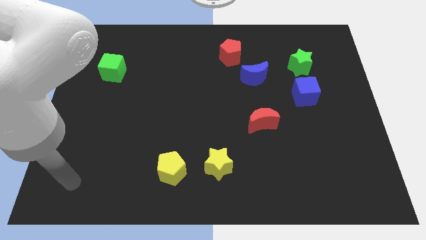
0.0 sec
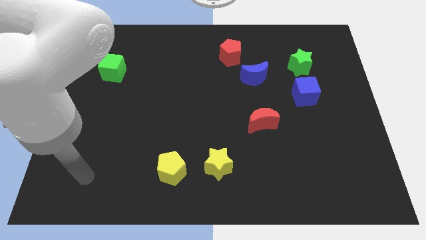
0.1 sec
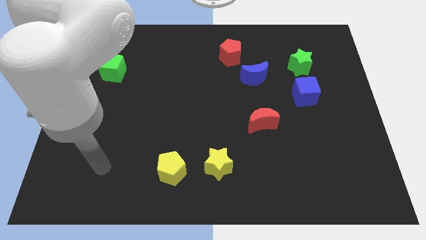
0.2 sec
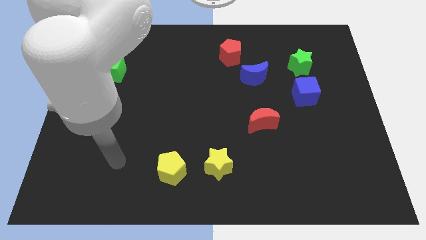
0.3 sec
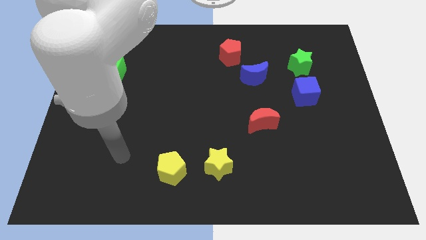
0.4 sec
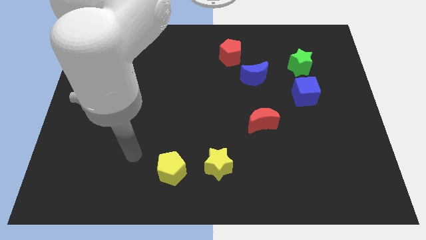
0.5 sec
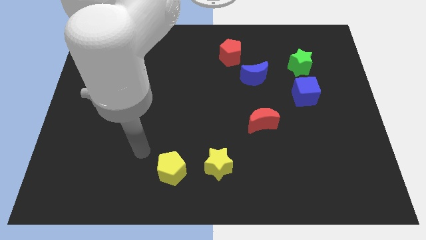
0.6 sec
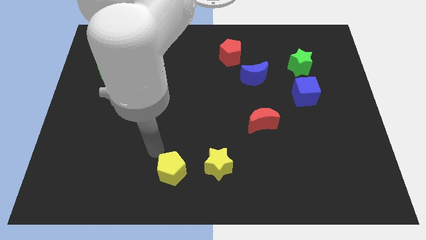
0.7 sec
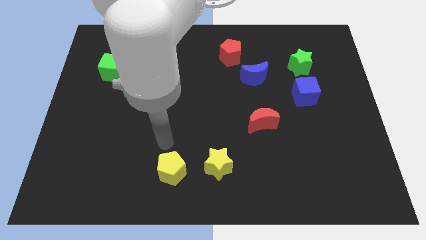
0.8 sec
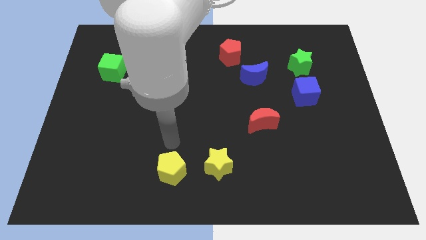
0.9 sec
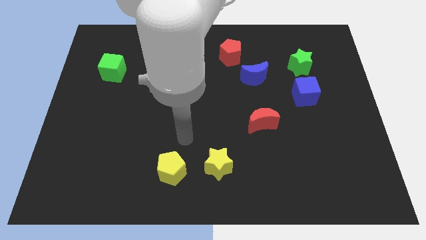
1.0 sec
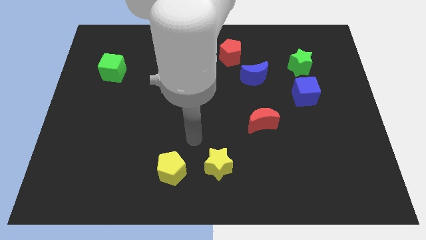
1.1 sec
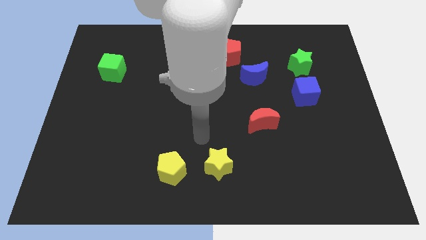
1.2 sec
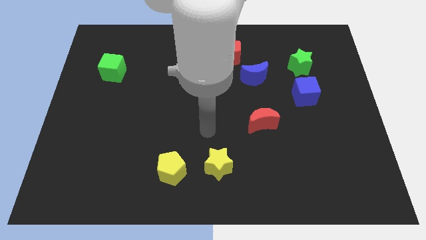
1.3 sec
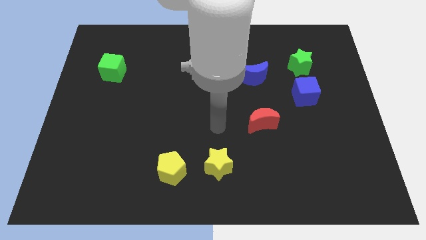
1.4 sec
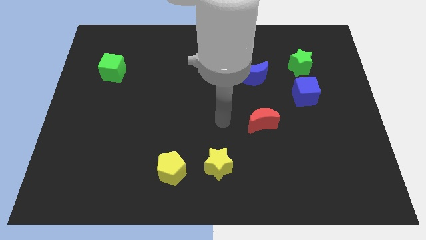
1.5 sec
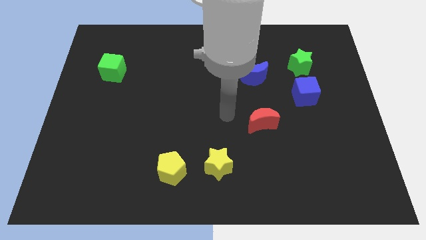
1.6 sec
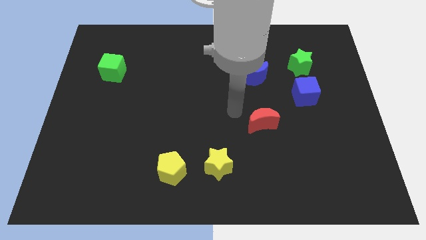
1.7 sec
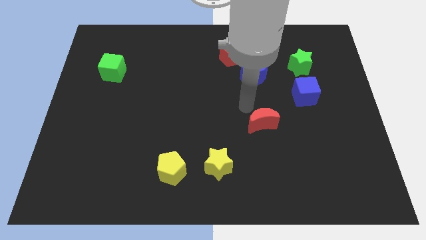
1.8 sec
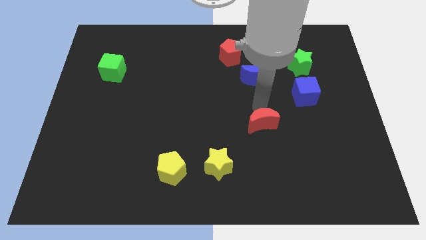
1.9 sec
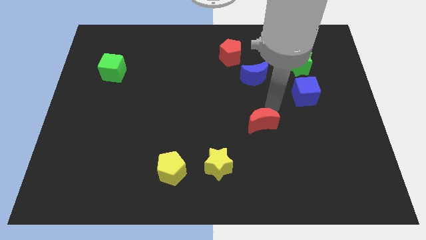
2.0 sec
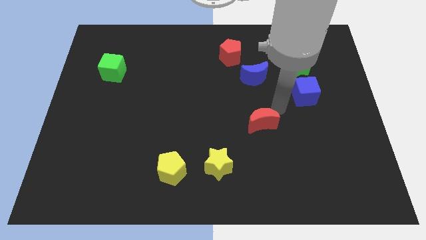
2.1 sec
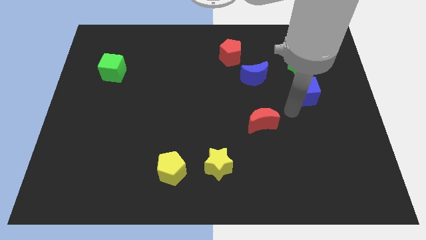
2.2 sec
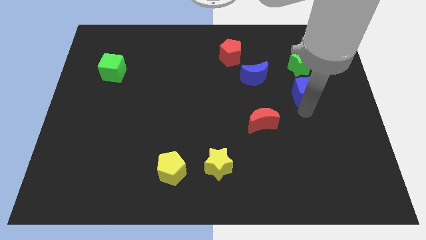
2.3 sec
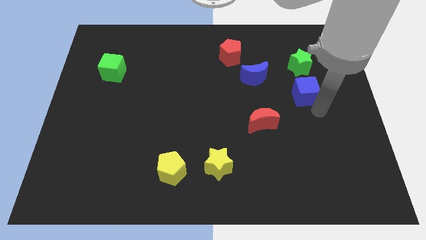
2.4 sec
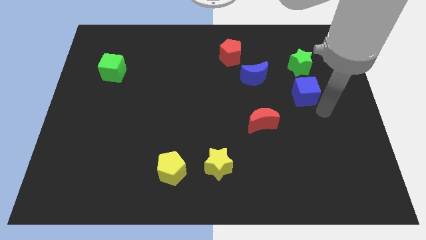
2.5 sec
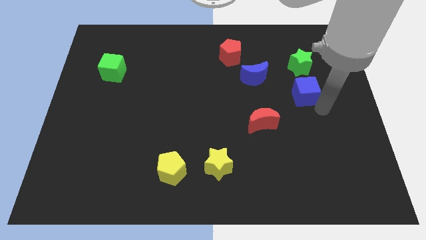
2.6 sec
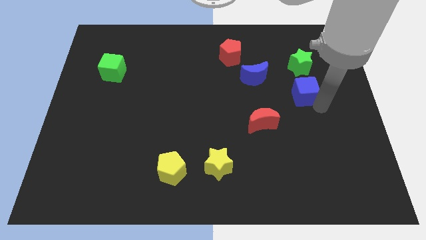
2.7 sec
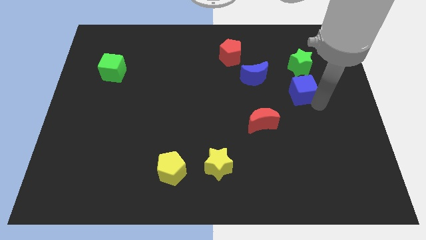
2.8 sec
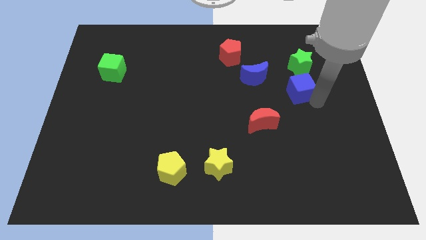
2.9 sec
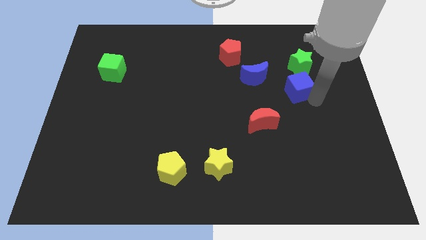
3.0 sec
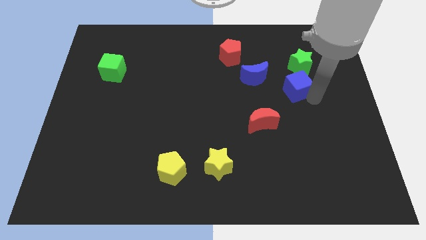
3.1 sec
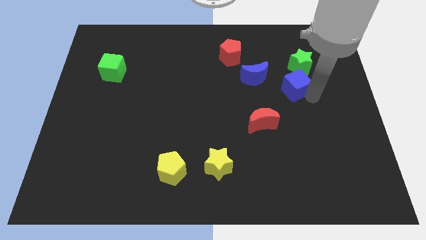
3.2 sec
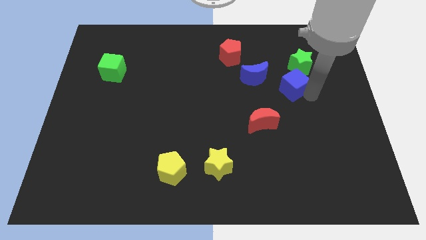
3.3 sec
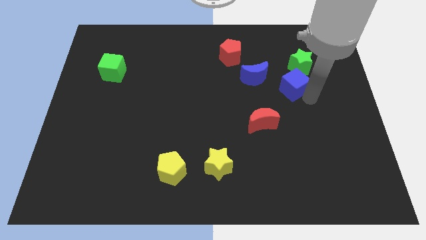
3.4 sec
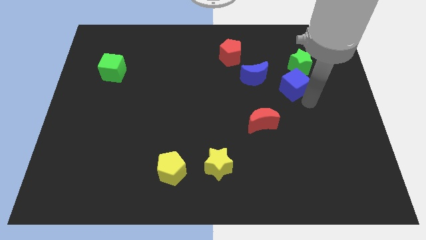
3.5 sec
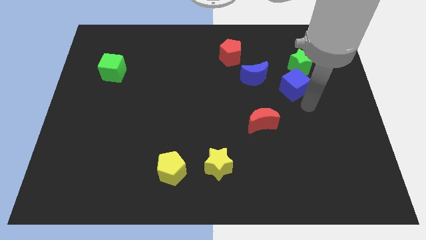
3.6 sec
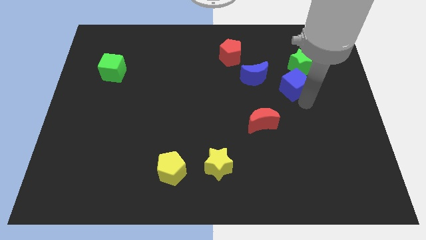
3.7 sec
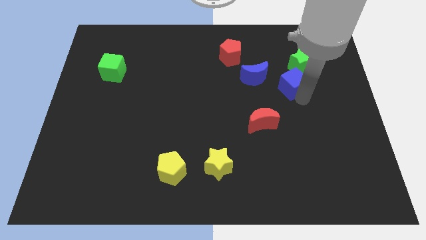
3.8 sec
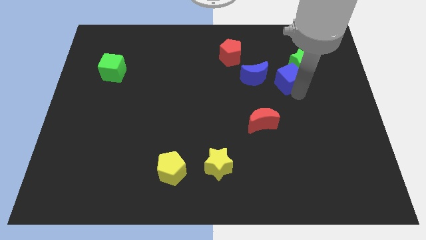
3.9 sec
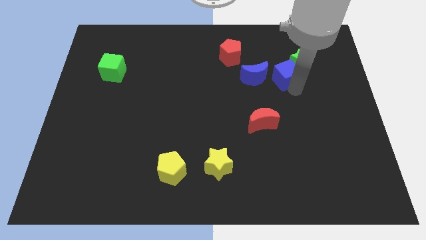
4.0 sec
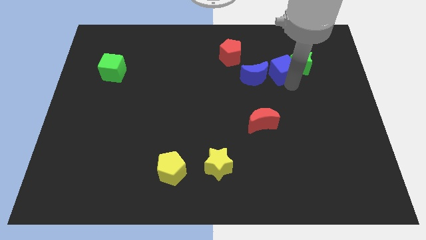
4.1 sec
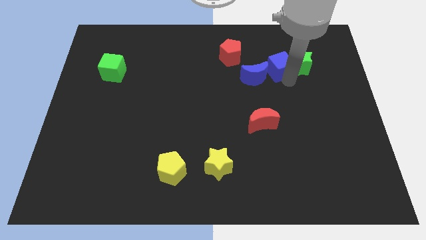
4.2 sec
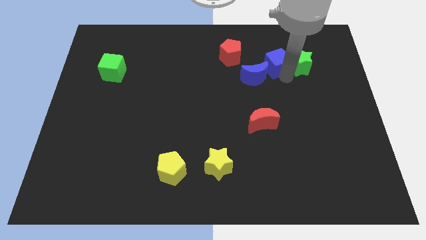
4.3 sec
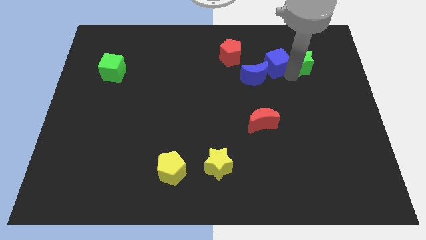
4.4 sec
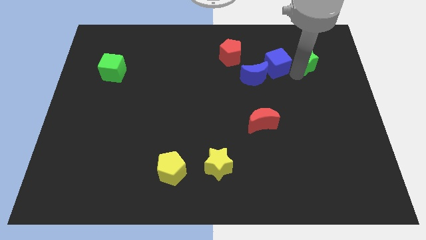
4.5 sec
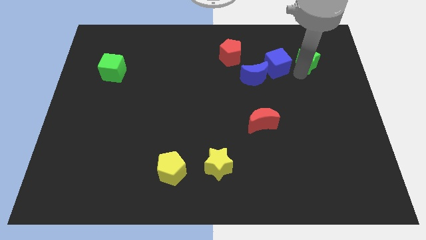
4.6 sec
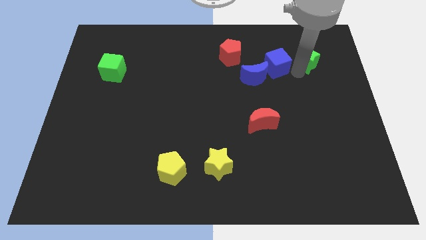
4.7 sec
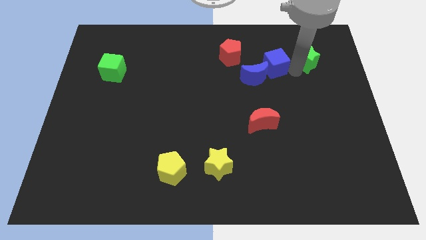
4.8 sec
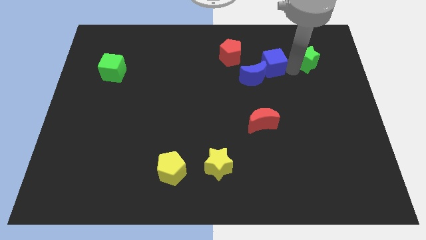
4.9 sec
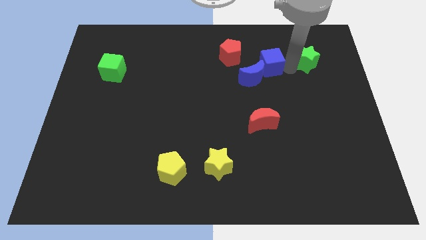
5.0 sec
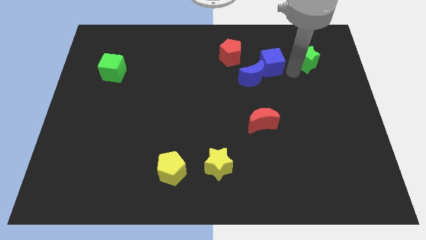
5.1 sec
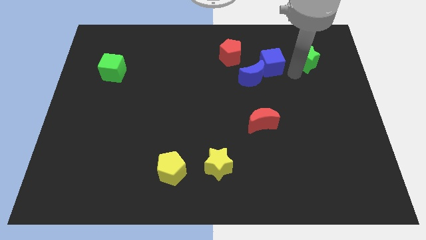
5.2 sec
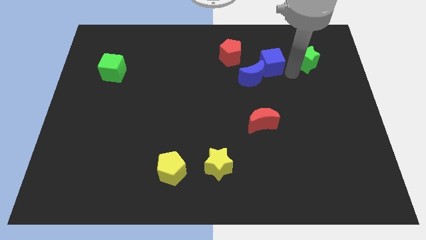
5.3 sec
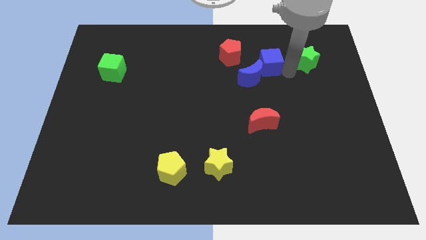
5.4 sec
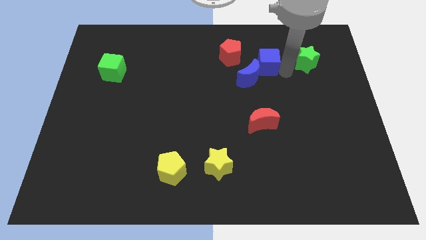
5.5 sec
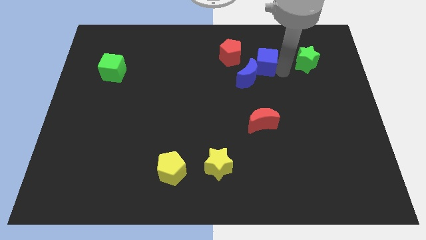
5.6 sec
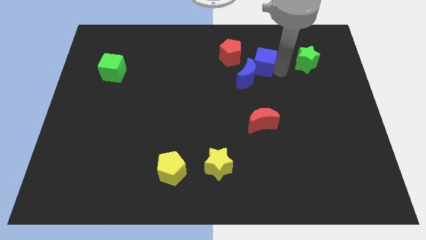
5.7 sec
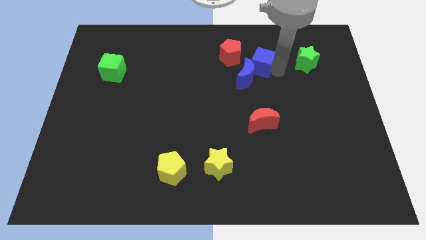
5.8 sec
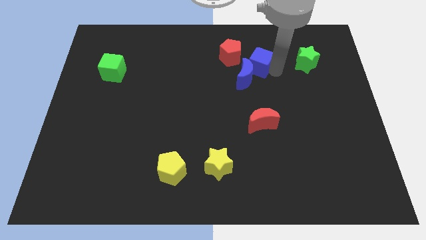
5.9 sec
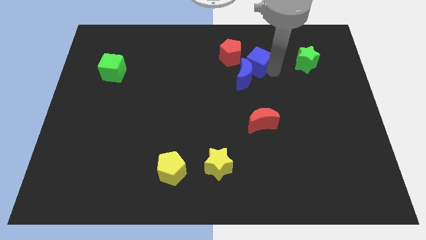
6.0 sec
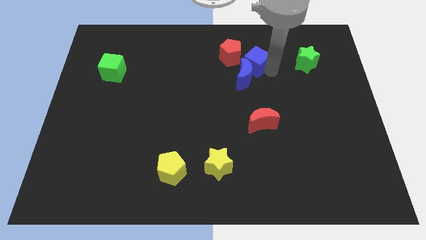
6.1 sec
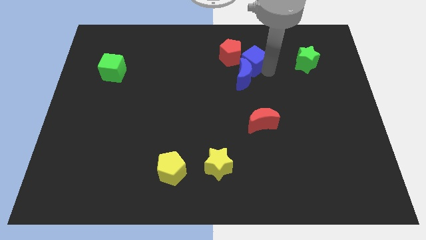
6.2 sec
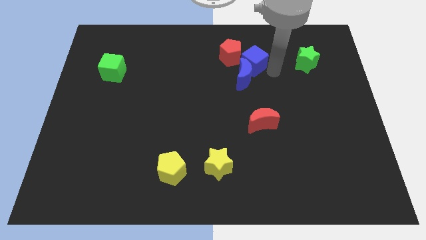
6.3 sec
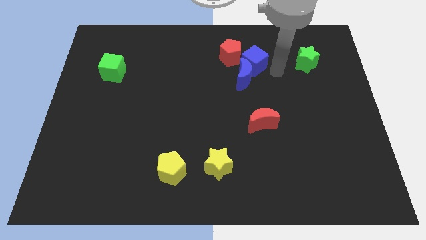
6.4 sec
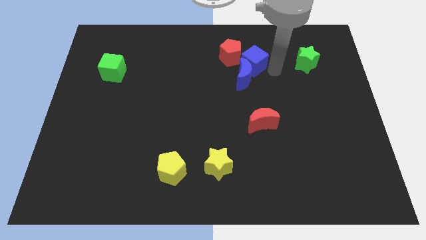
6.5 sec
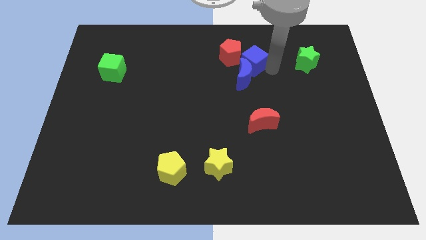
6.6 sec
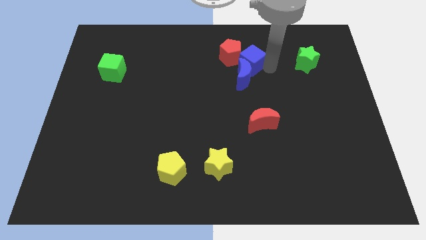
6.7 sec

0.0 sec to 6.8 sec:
push the blue cube to the red pentagon
